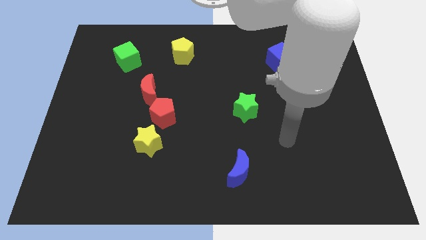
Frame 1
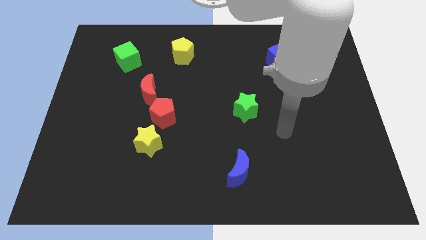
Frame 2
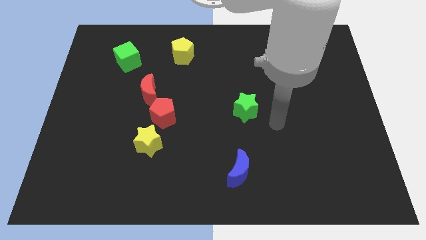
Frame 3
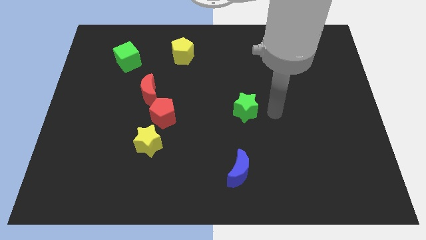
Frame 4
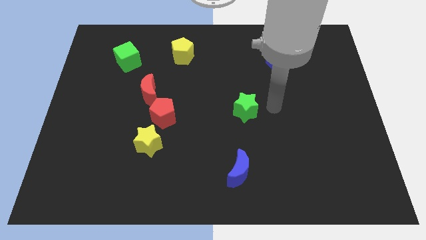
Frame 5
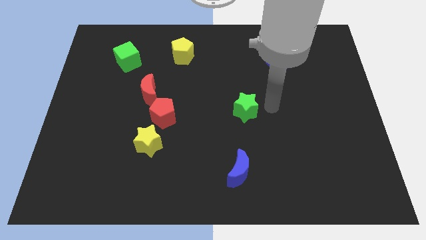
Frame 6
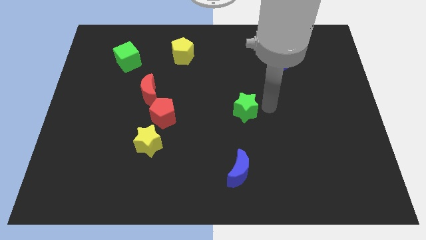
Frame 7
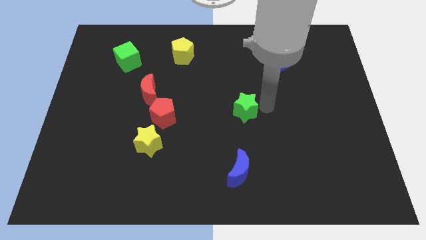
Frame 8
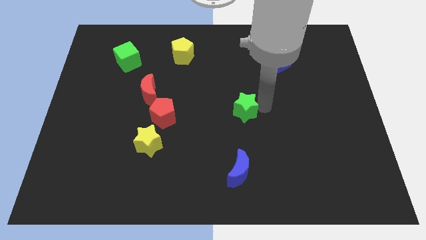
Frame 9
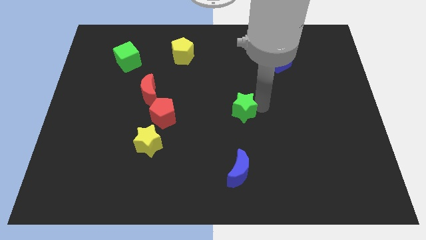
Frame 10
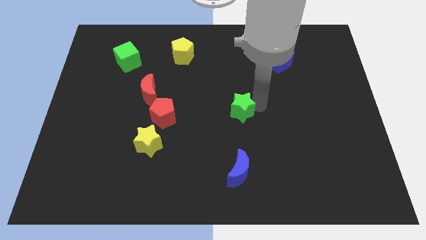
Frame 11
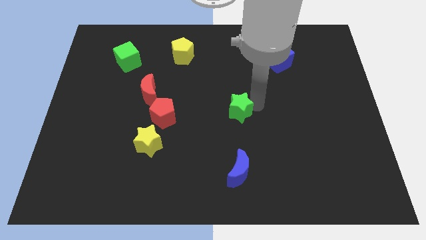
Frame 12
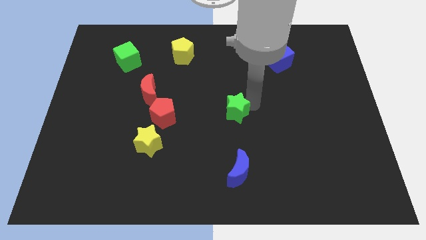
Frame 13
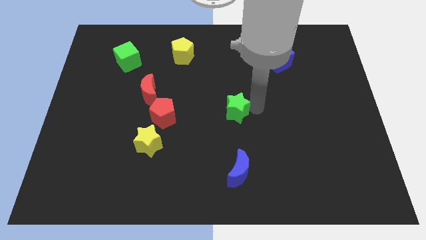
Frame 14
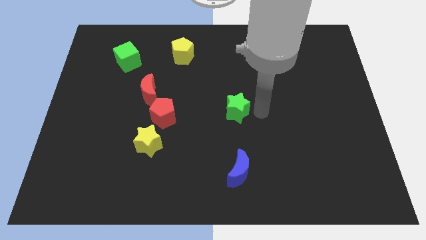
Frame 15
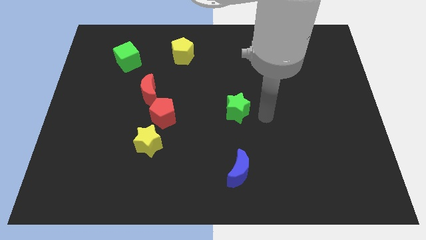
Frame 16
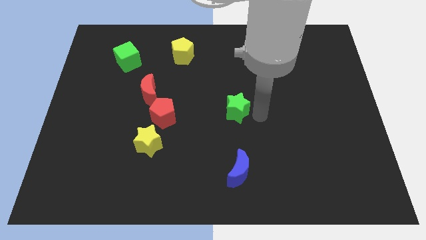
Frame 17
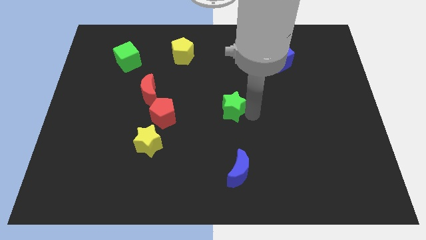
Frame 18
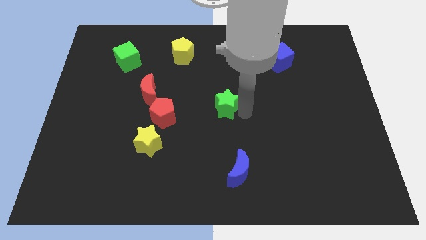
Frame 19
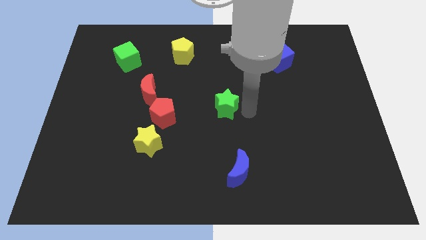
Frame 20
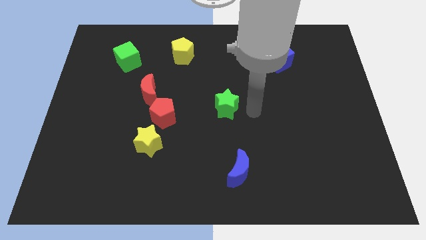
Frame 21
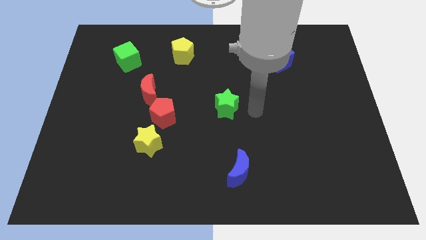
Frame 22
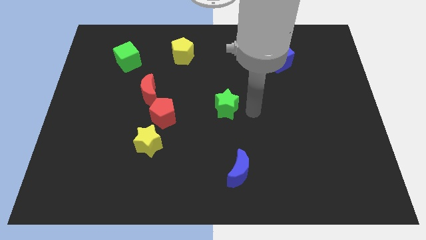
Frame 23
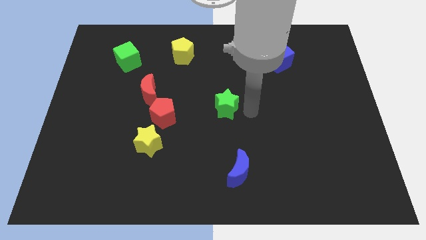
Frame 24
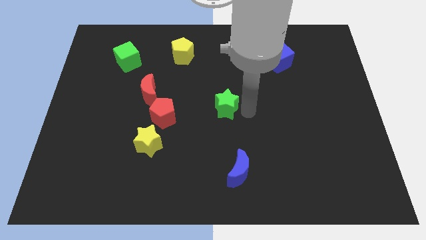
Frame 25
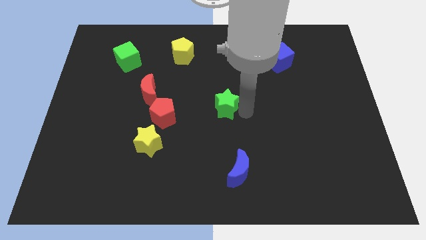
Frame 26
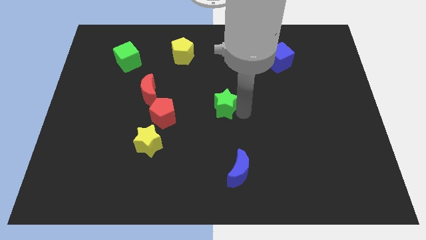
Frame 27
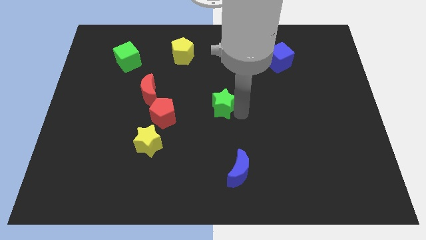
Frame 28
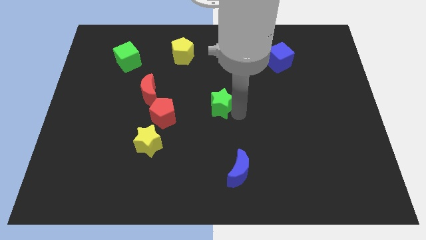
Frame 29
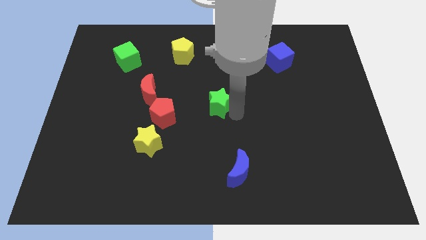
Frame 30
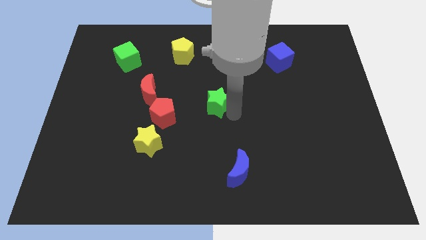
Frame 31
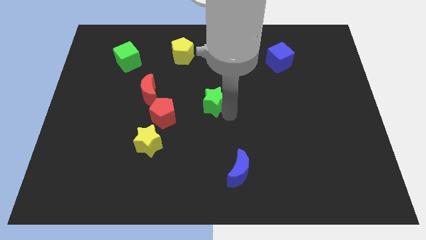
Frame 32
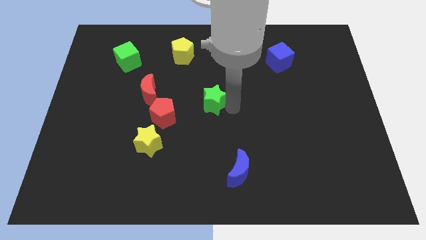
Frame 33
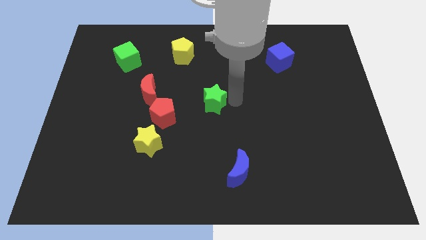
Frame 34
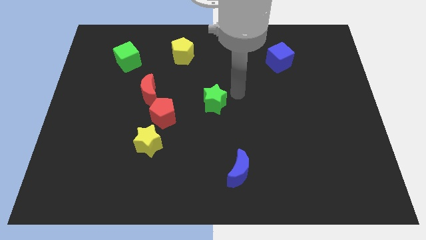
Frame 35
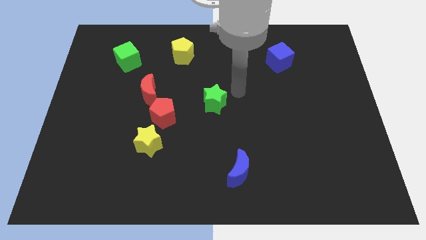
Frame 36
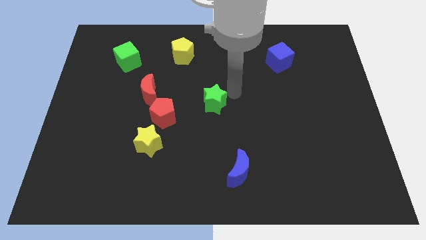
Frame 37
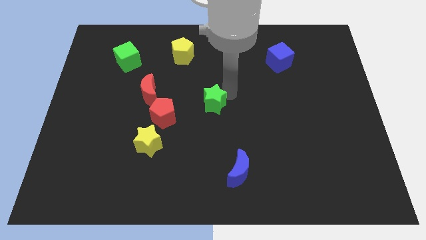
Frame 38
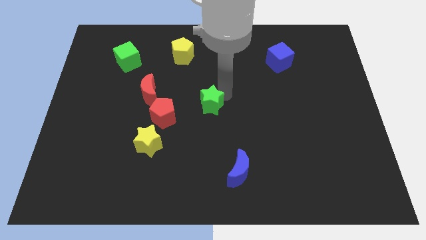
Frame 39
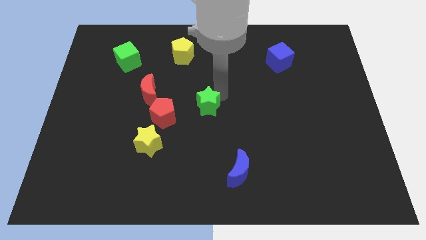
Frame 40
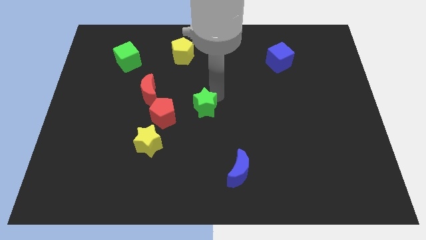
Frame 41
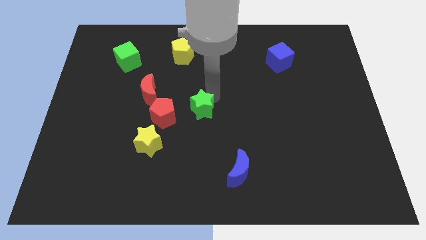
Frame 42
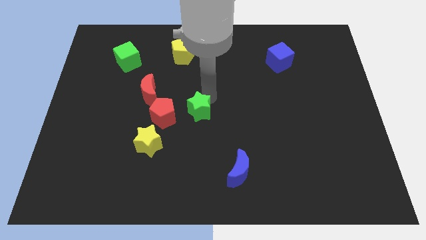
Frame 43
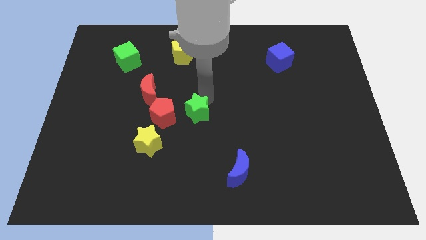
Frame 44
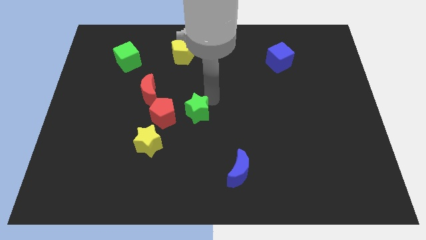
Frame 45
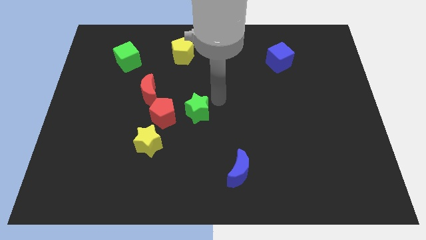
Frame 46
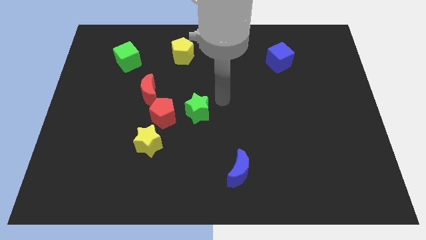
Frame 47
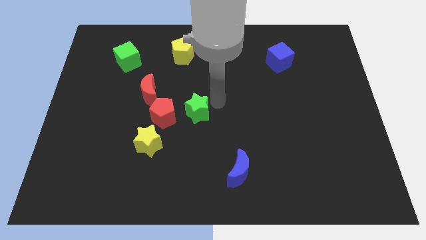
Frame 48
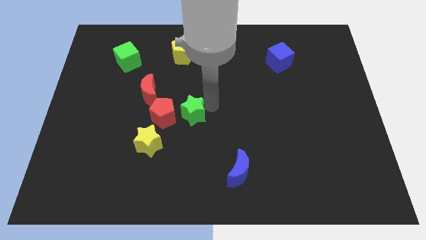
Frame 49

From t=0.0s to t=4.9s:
put the green star to the top right of the yellow star

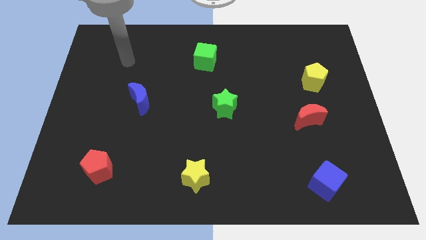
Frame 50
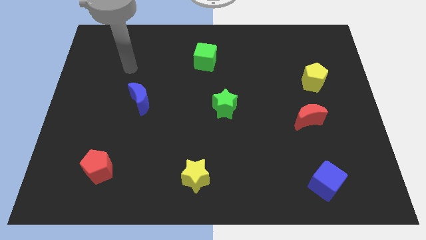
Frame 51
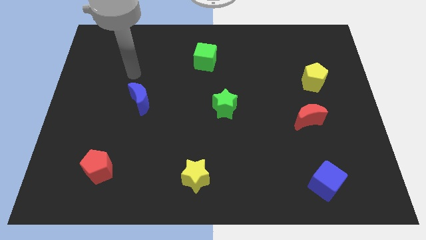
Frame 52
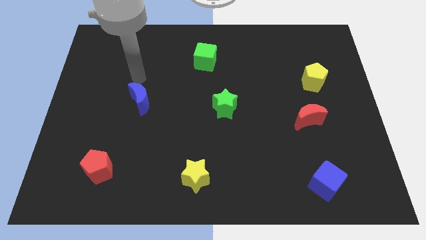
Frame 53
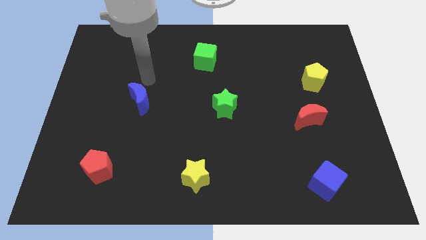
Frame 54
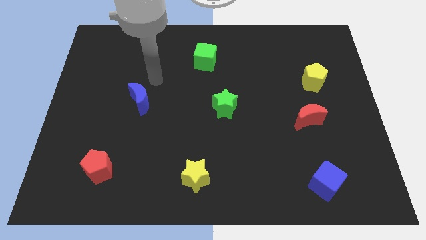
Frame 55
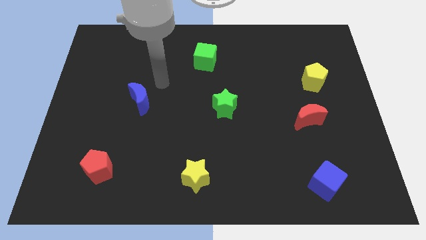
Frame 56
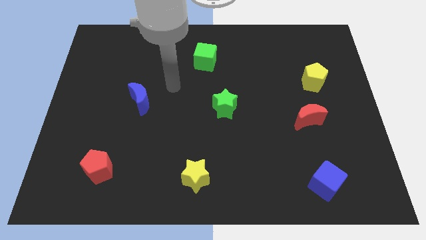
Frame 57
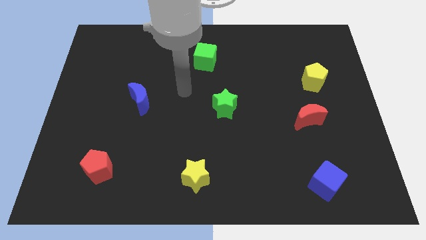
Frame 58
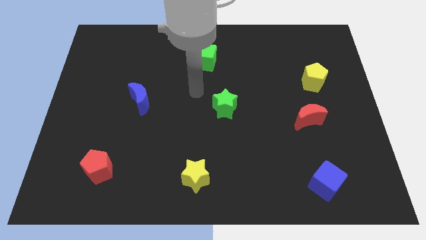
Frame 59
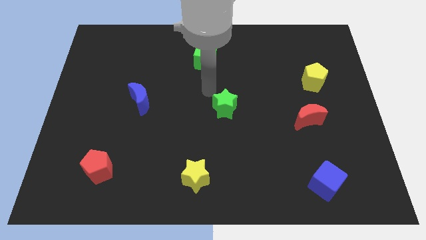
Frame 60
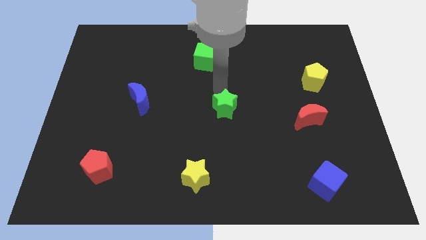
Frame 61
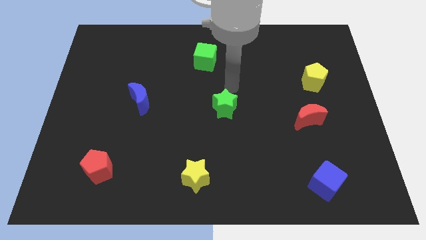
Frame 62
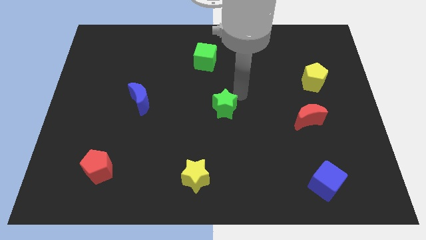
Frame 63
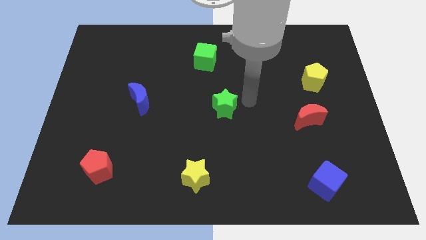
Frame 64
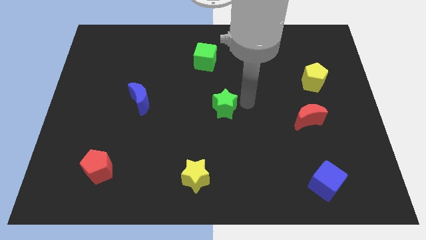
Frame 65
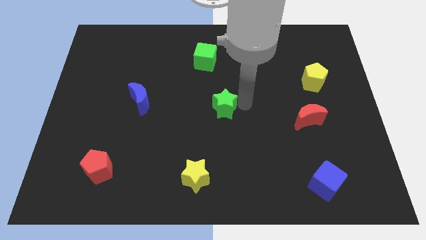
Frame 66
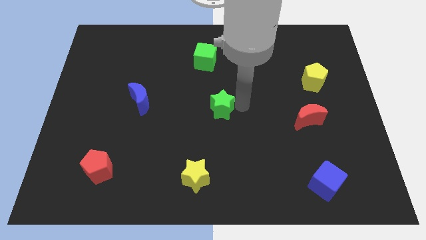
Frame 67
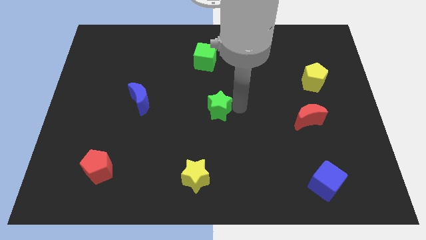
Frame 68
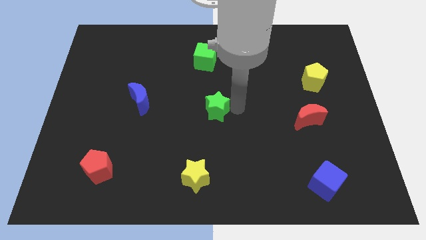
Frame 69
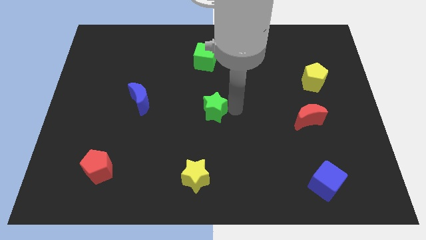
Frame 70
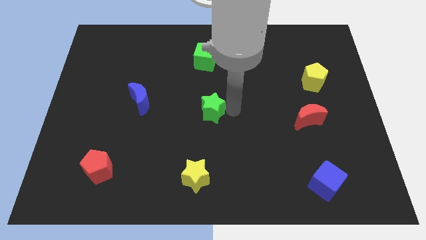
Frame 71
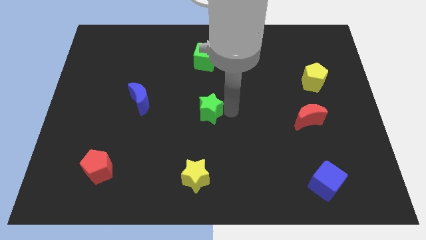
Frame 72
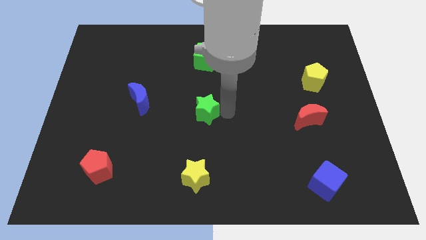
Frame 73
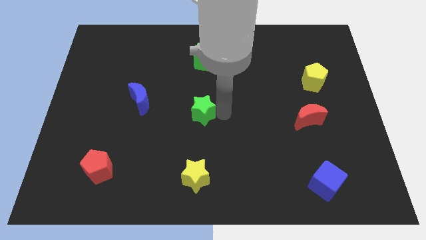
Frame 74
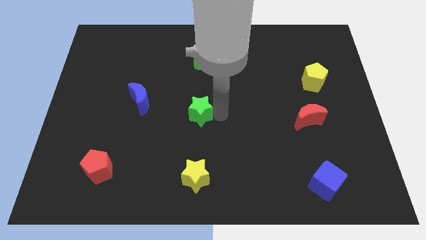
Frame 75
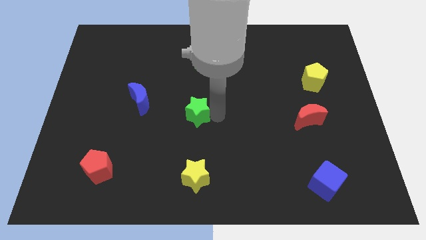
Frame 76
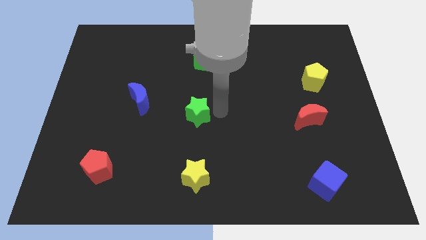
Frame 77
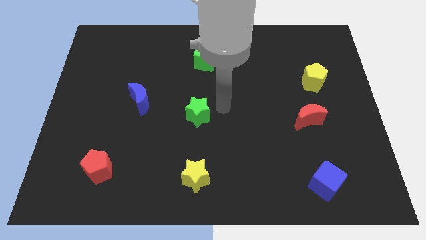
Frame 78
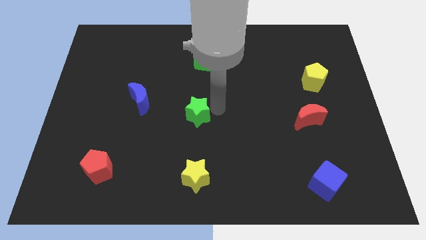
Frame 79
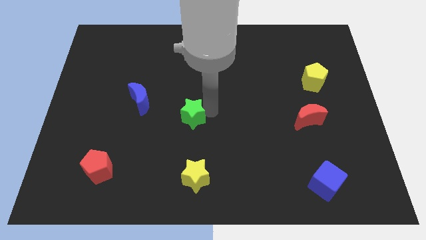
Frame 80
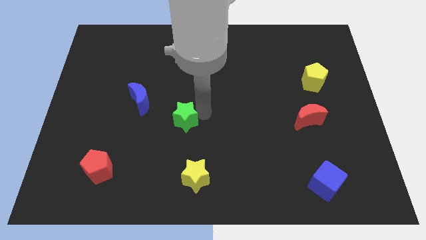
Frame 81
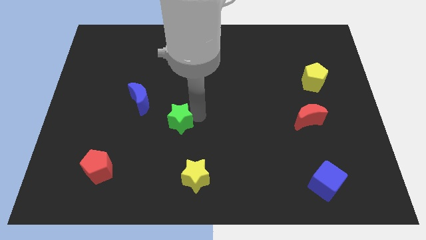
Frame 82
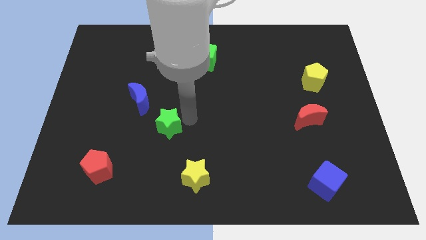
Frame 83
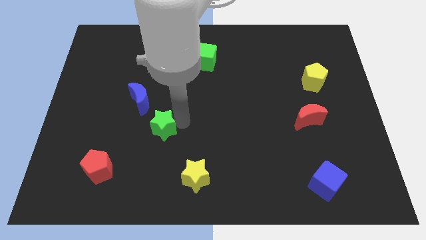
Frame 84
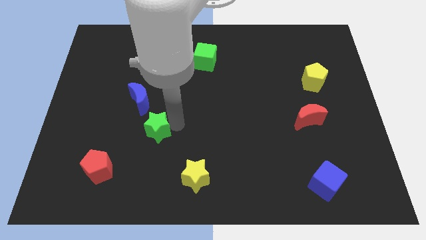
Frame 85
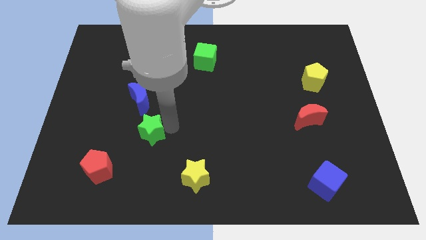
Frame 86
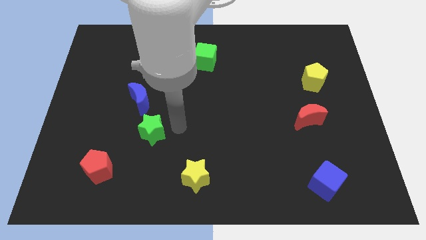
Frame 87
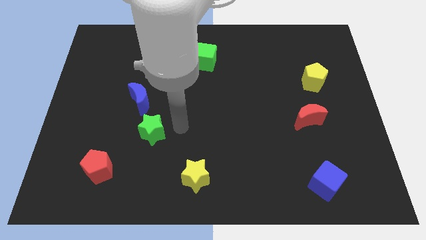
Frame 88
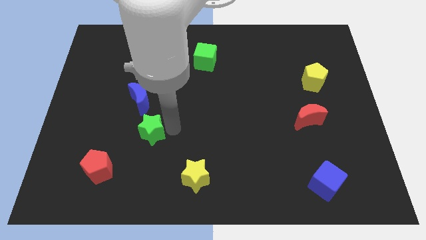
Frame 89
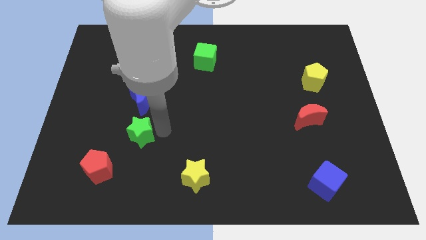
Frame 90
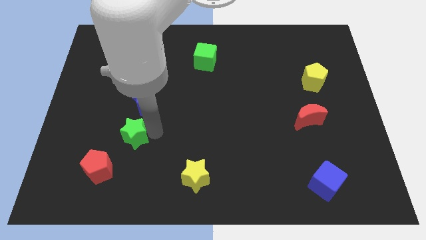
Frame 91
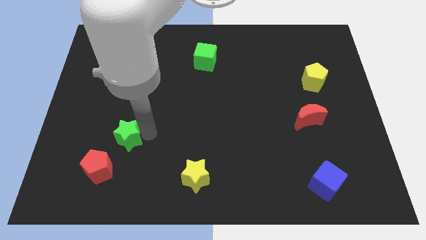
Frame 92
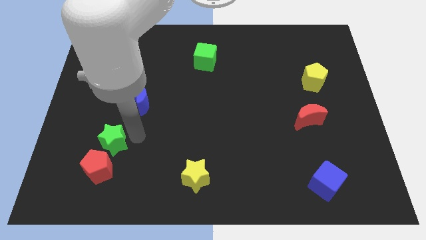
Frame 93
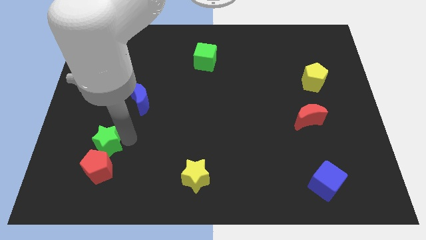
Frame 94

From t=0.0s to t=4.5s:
put the green star to the top left of the red pentagon
